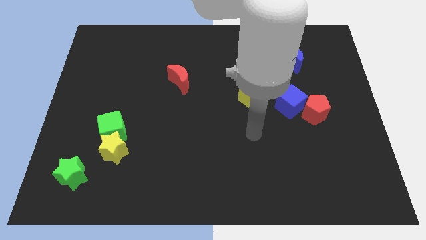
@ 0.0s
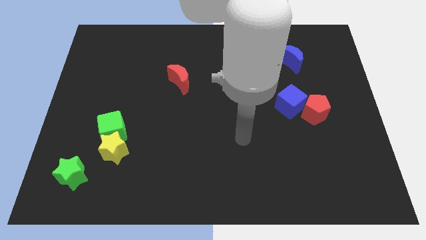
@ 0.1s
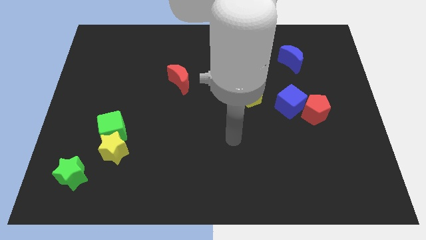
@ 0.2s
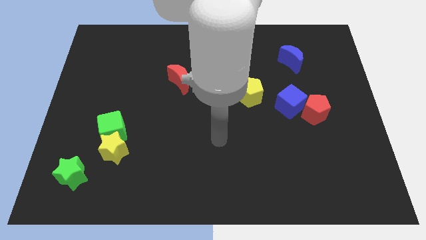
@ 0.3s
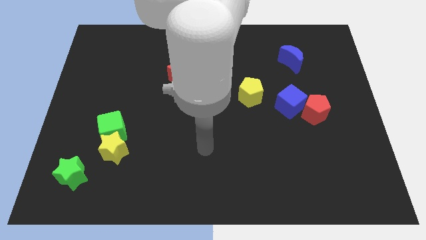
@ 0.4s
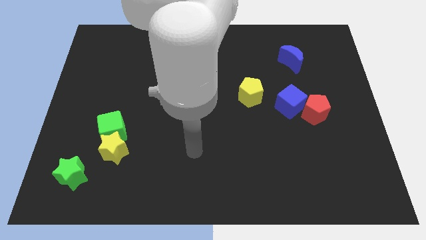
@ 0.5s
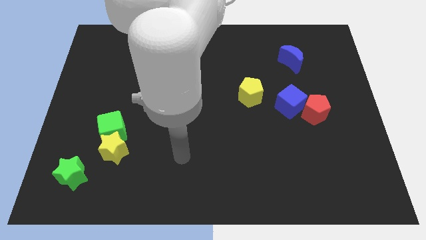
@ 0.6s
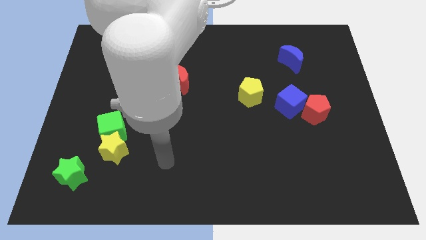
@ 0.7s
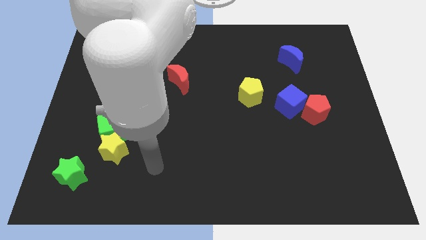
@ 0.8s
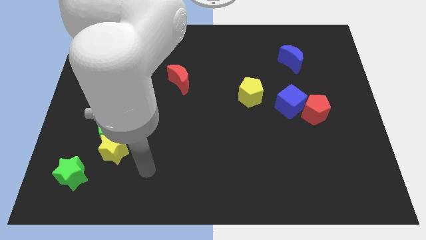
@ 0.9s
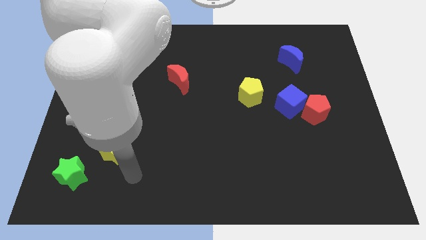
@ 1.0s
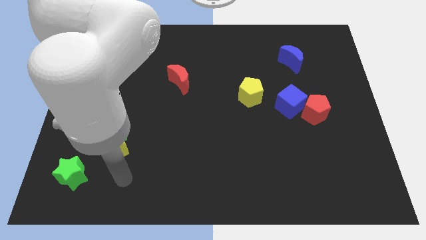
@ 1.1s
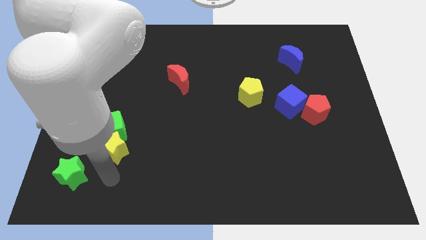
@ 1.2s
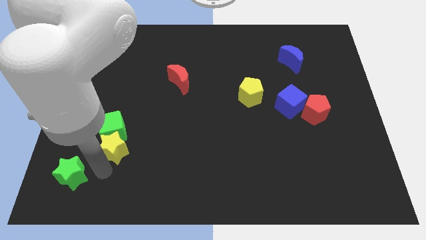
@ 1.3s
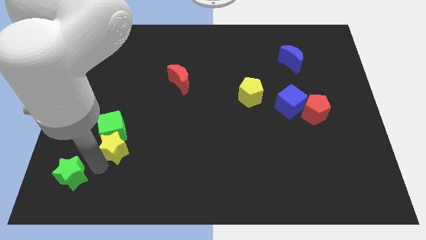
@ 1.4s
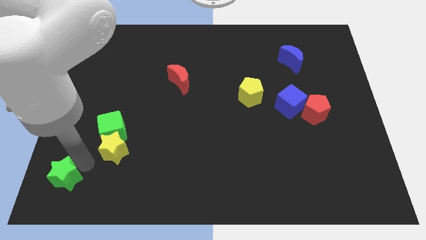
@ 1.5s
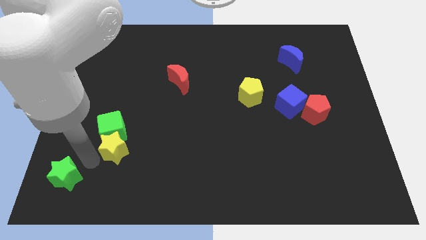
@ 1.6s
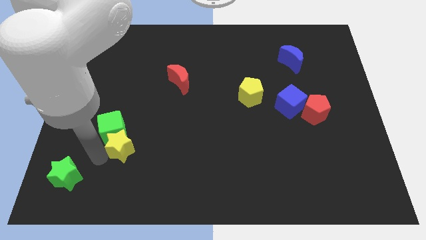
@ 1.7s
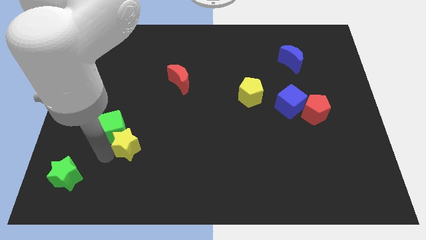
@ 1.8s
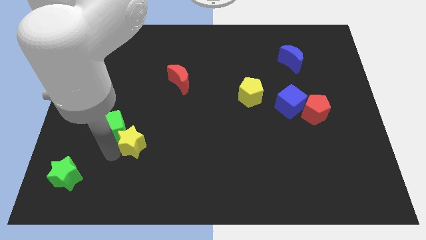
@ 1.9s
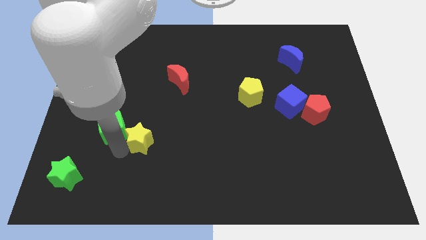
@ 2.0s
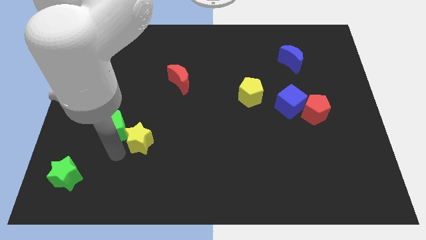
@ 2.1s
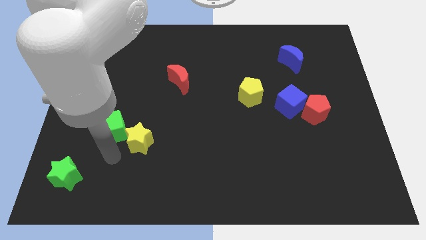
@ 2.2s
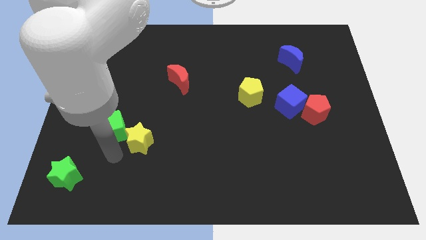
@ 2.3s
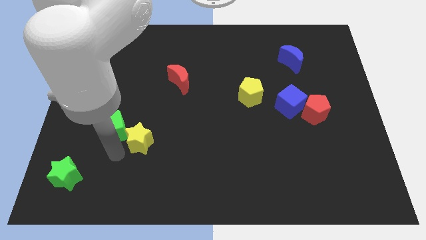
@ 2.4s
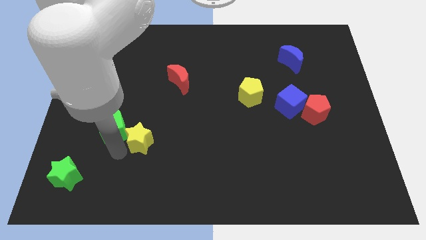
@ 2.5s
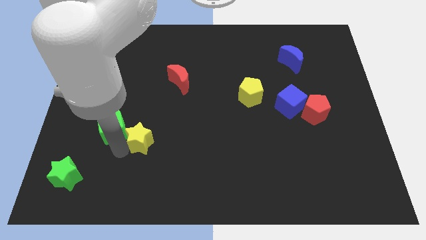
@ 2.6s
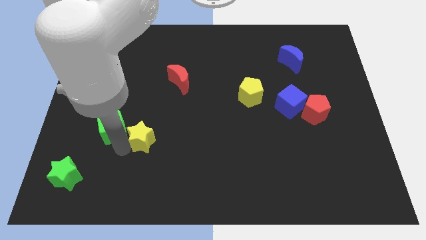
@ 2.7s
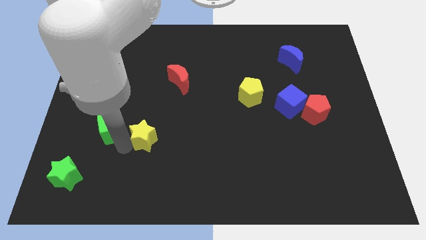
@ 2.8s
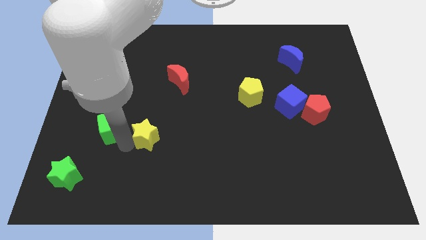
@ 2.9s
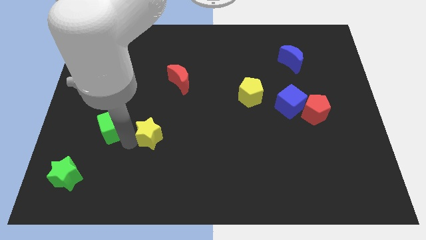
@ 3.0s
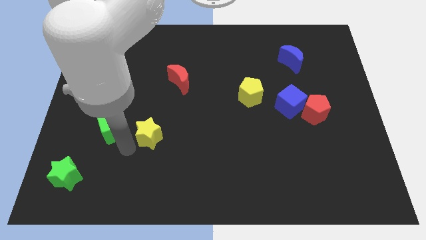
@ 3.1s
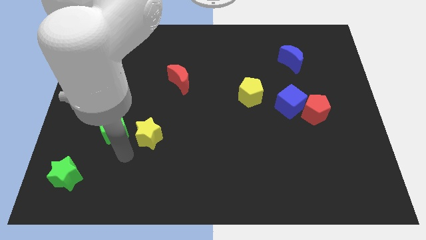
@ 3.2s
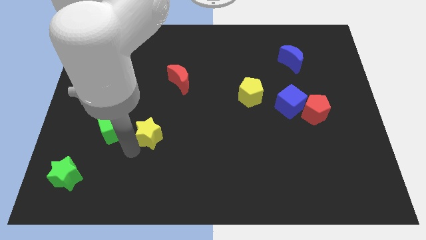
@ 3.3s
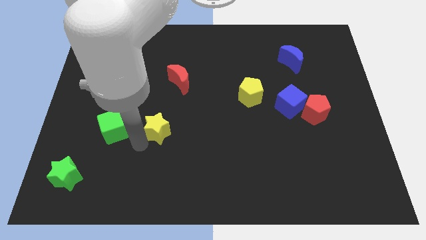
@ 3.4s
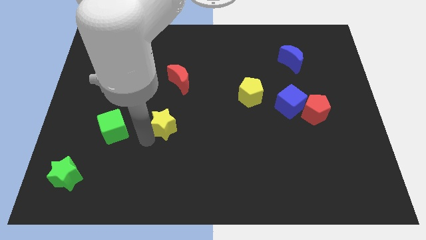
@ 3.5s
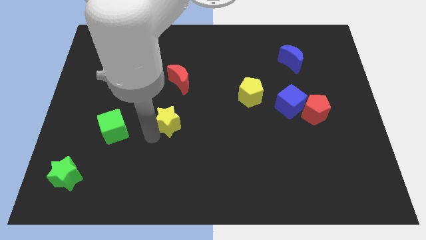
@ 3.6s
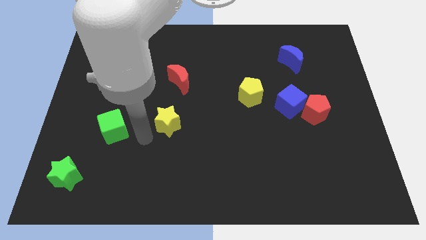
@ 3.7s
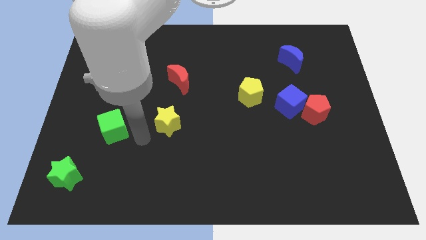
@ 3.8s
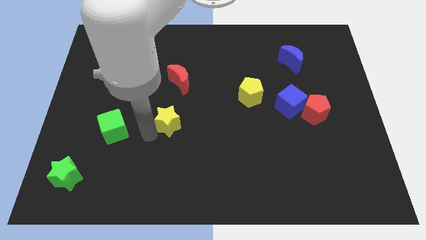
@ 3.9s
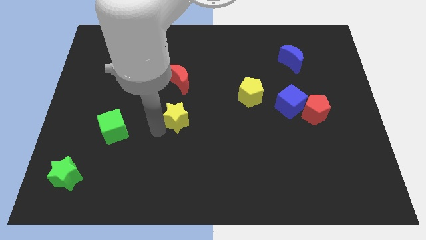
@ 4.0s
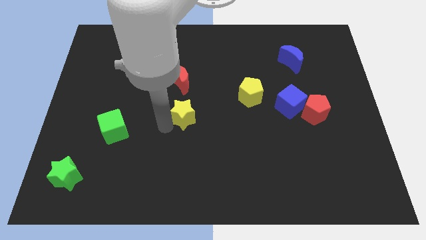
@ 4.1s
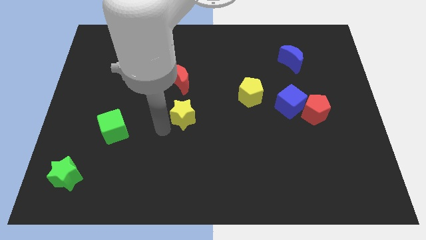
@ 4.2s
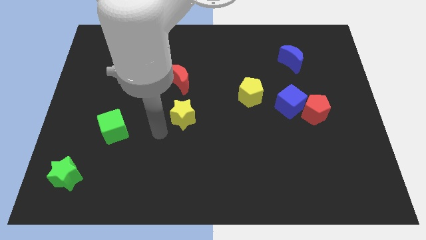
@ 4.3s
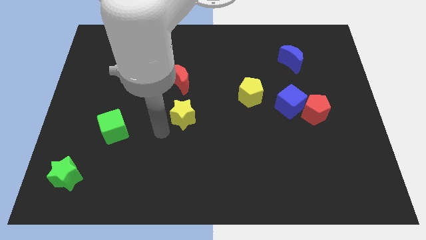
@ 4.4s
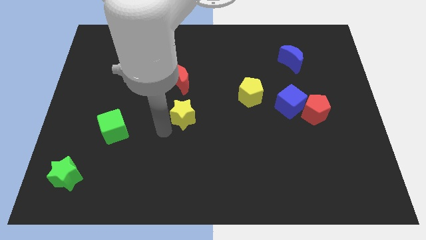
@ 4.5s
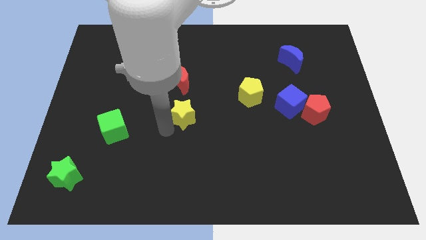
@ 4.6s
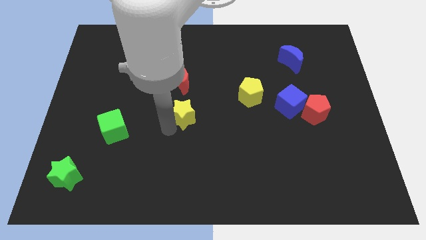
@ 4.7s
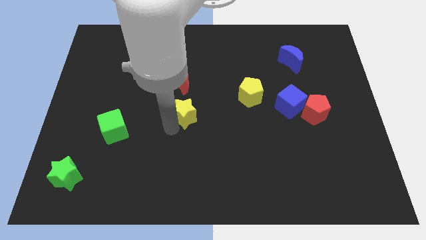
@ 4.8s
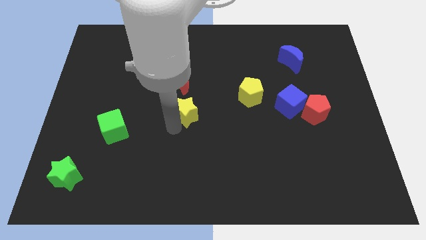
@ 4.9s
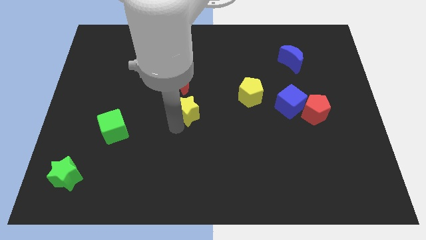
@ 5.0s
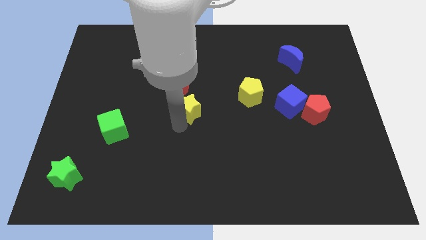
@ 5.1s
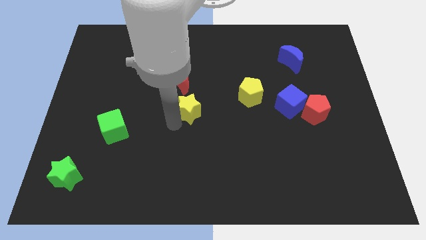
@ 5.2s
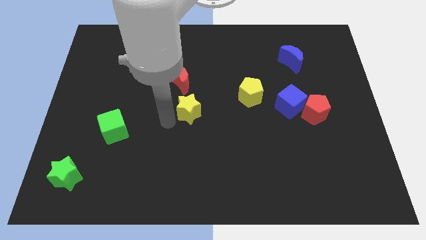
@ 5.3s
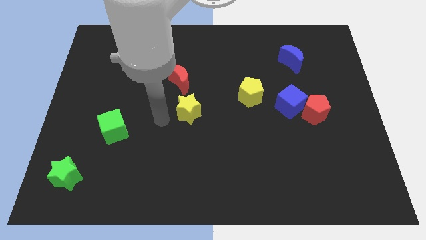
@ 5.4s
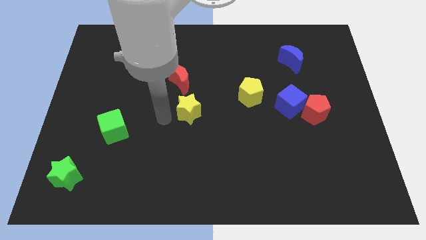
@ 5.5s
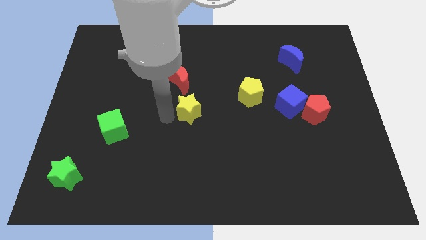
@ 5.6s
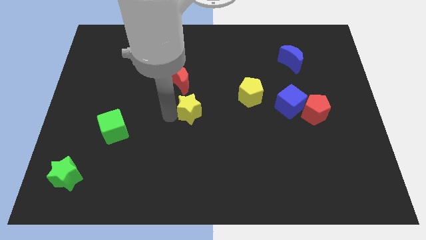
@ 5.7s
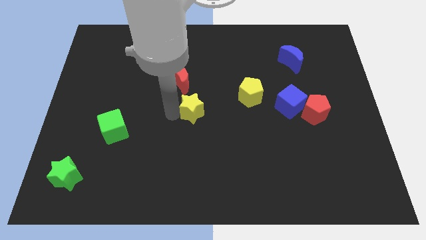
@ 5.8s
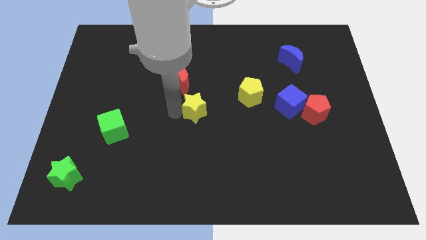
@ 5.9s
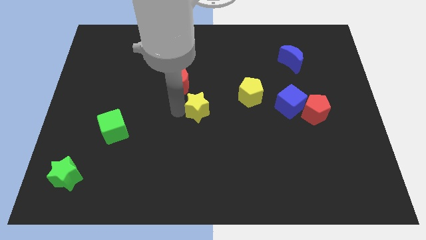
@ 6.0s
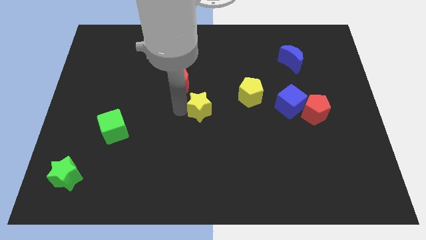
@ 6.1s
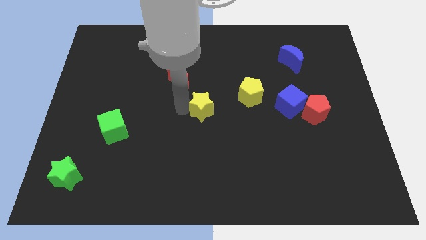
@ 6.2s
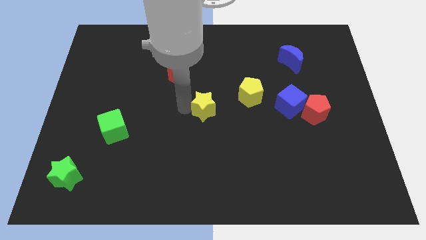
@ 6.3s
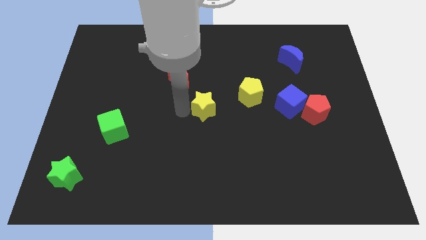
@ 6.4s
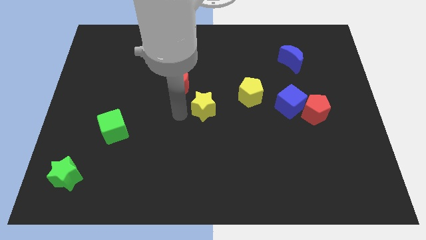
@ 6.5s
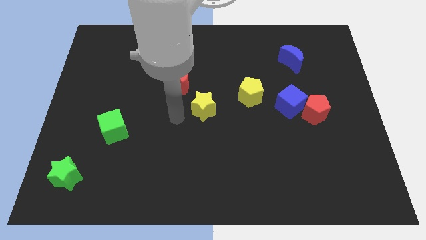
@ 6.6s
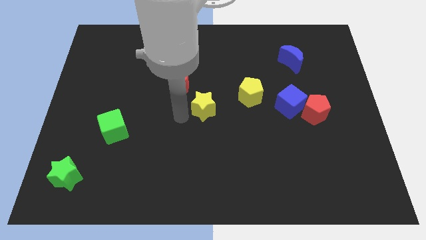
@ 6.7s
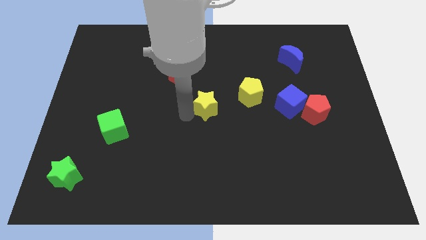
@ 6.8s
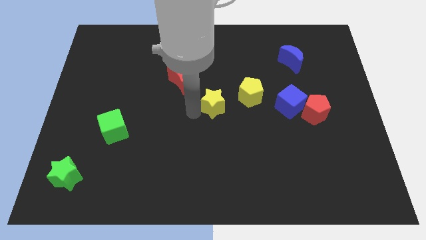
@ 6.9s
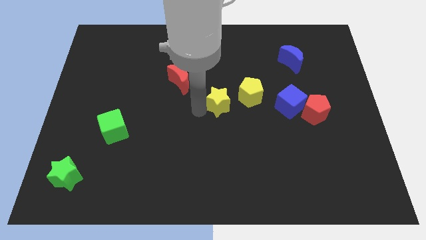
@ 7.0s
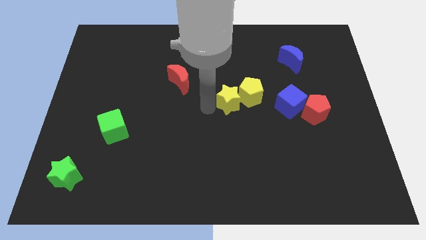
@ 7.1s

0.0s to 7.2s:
move the yellow star next to the yellow pentagon
